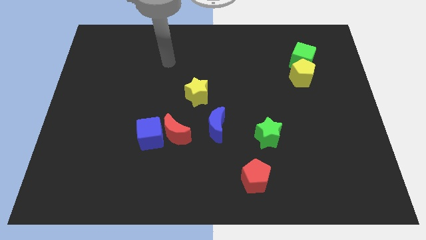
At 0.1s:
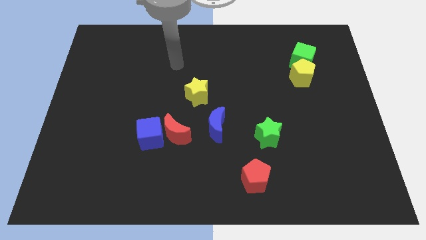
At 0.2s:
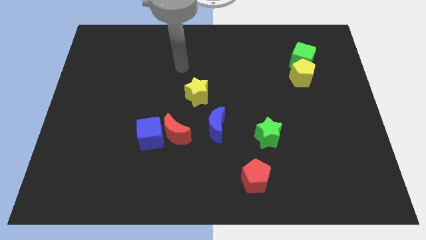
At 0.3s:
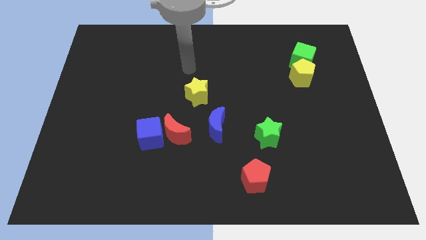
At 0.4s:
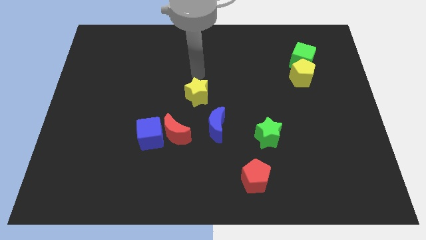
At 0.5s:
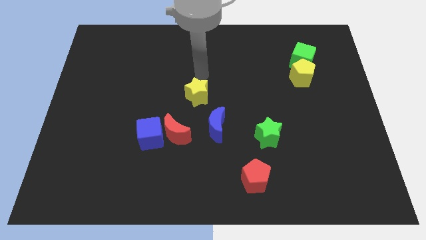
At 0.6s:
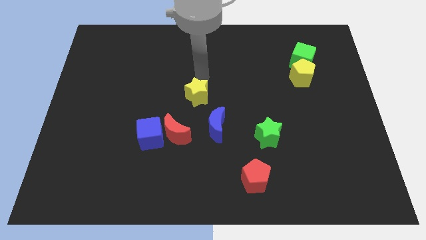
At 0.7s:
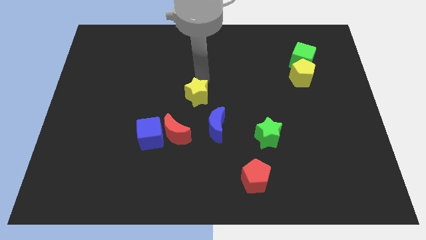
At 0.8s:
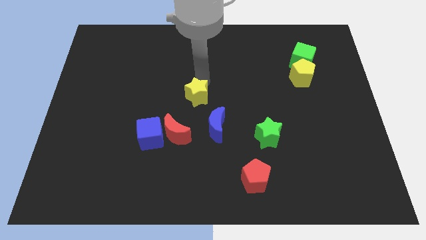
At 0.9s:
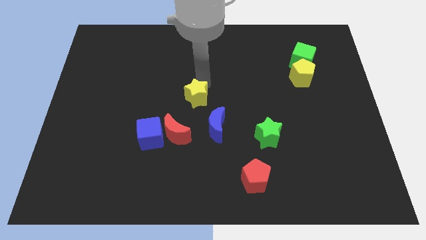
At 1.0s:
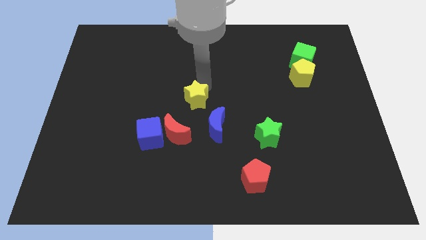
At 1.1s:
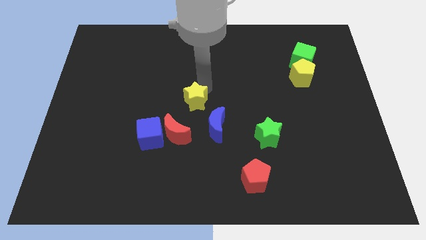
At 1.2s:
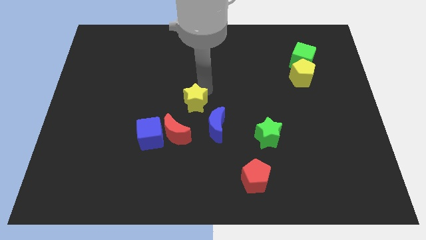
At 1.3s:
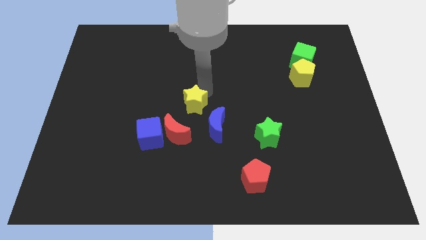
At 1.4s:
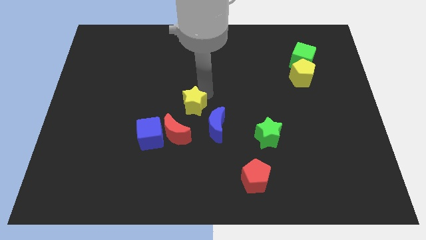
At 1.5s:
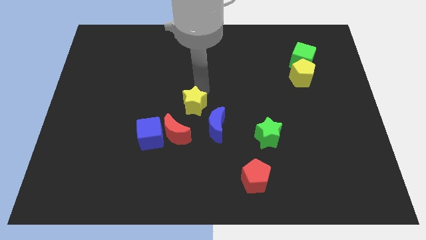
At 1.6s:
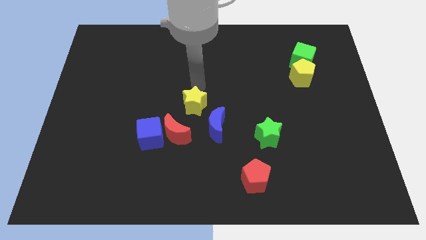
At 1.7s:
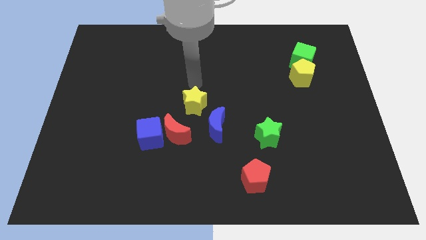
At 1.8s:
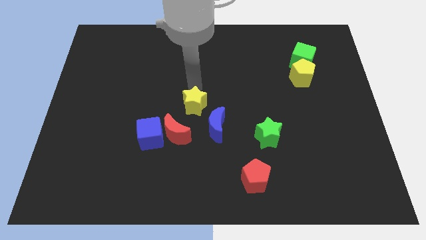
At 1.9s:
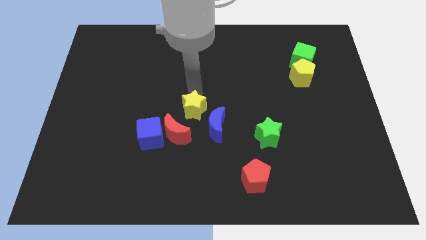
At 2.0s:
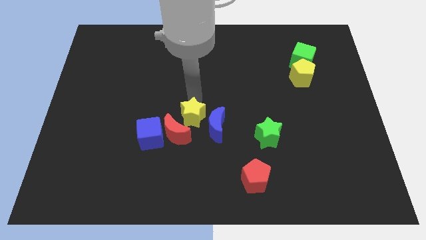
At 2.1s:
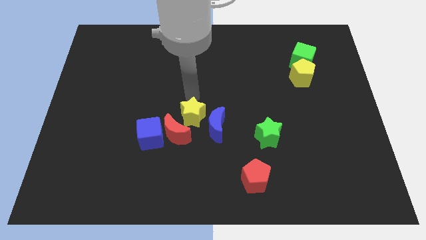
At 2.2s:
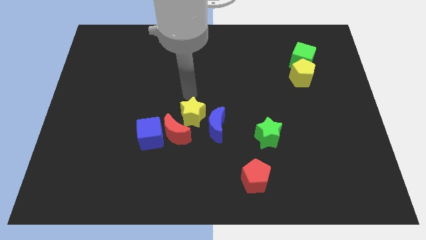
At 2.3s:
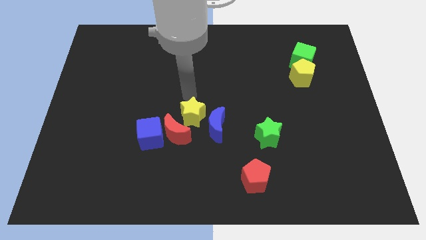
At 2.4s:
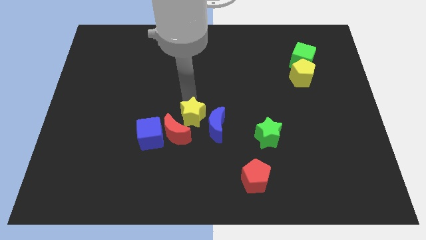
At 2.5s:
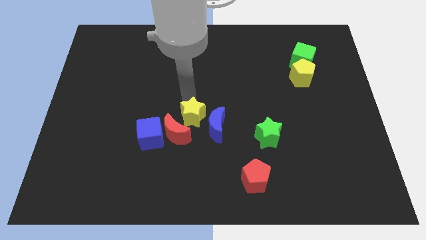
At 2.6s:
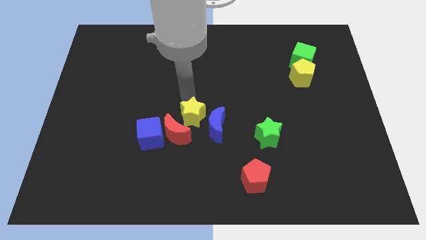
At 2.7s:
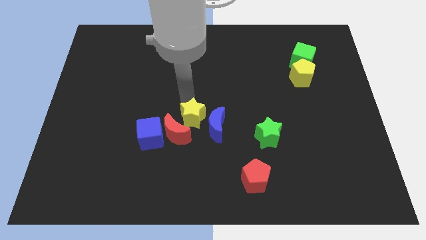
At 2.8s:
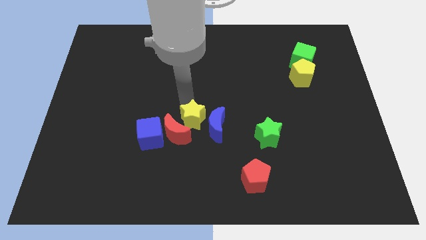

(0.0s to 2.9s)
slightly slide the yellow star down

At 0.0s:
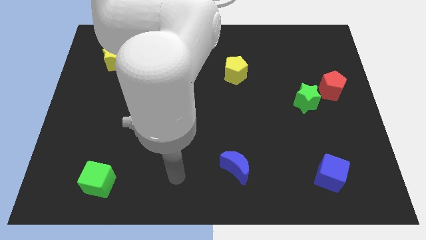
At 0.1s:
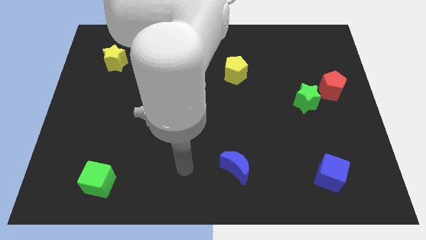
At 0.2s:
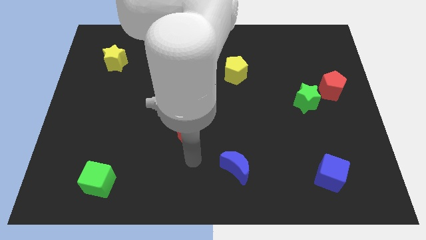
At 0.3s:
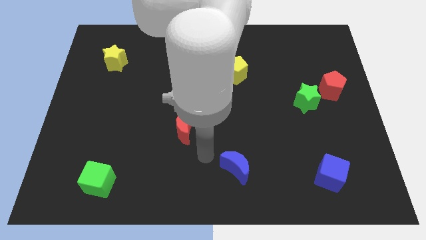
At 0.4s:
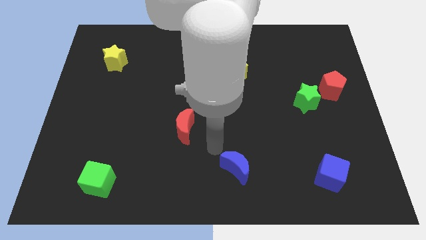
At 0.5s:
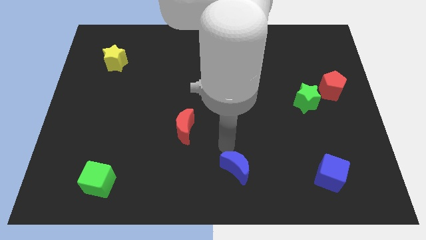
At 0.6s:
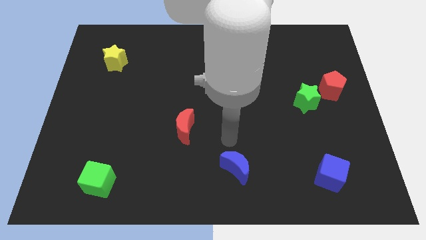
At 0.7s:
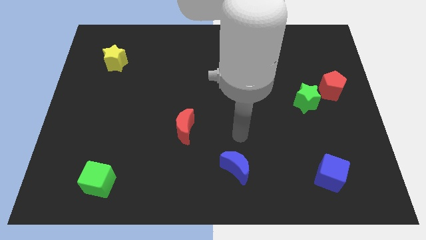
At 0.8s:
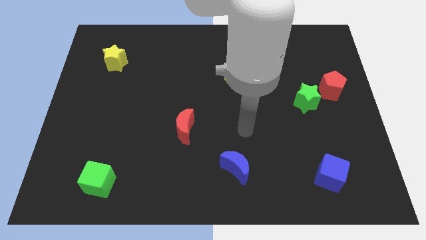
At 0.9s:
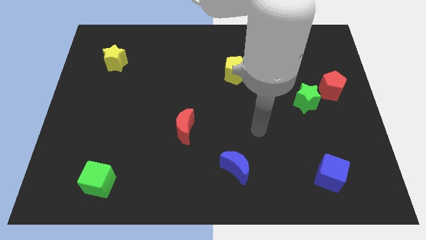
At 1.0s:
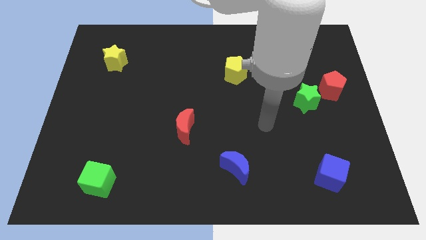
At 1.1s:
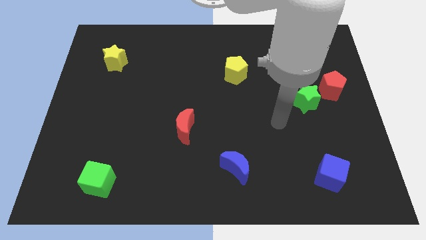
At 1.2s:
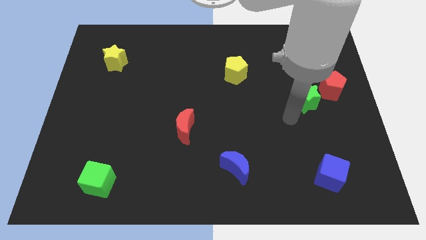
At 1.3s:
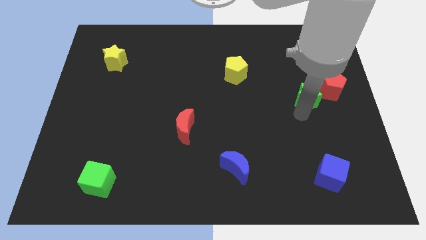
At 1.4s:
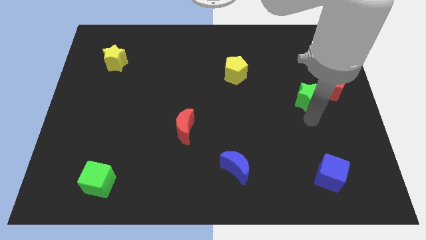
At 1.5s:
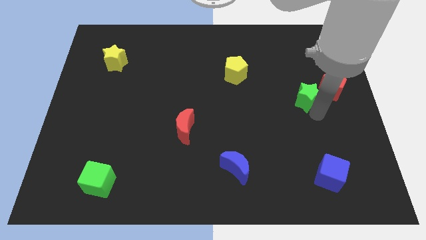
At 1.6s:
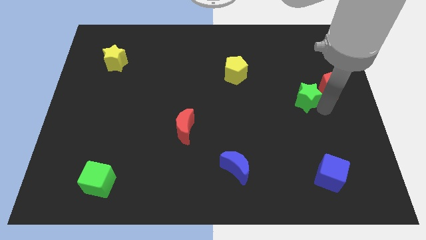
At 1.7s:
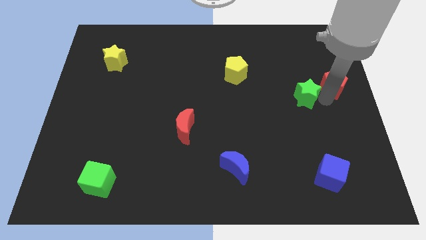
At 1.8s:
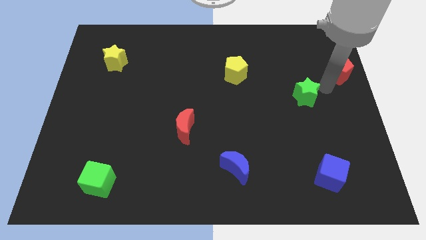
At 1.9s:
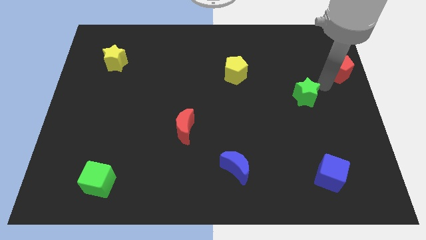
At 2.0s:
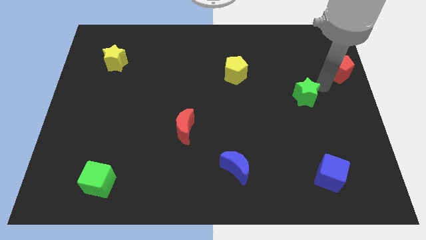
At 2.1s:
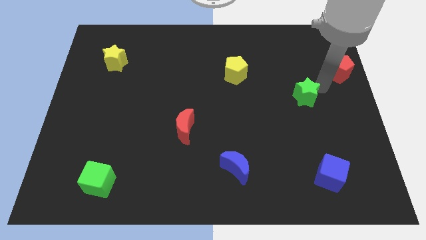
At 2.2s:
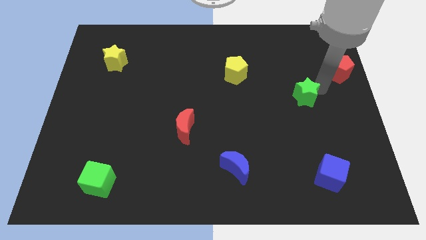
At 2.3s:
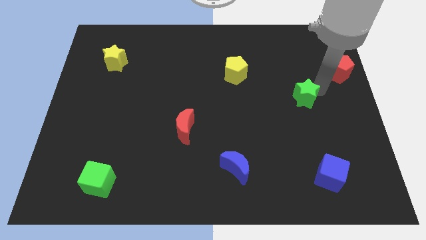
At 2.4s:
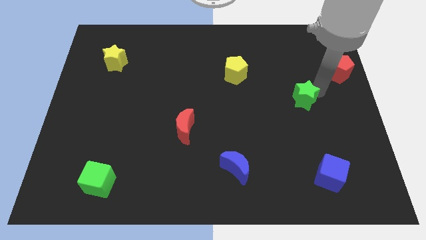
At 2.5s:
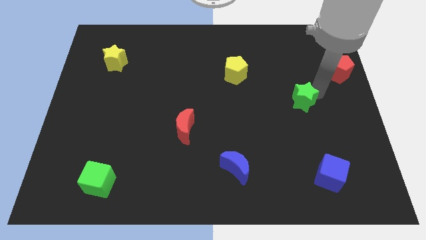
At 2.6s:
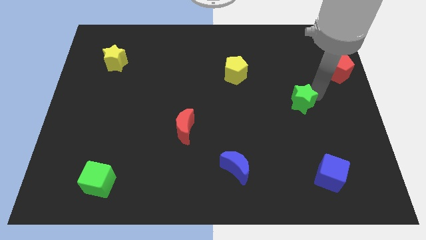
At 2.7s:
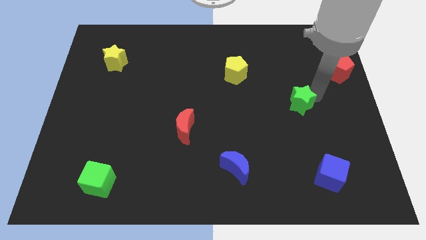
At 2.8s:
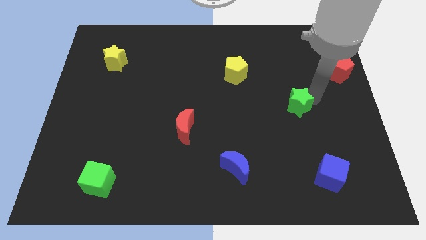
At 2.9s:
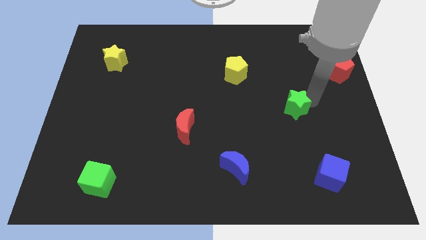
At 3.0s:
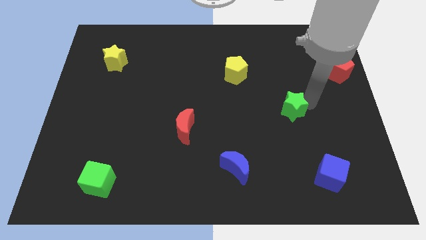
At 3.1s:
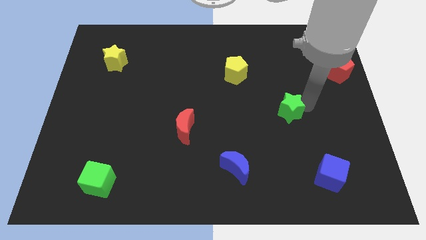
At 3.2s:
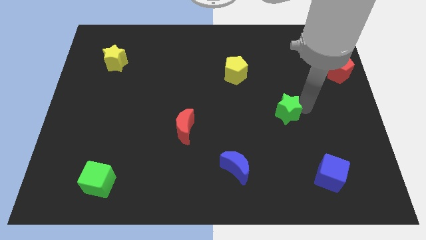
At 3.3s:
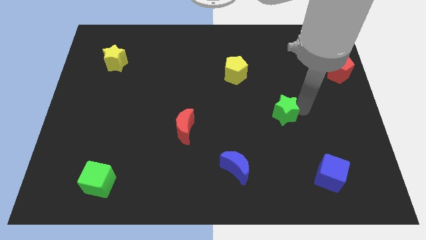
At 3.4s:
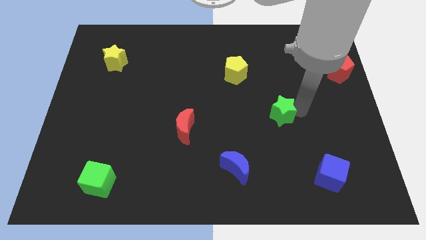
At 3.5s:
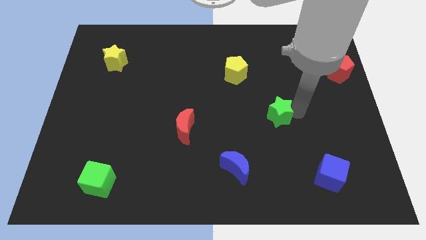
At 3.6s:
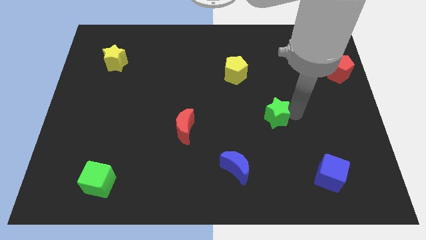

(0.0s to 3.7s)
slightly slide the green star left

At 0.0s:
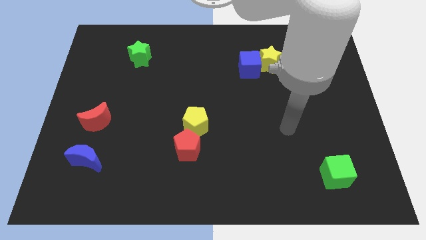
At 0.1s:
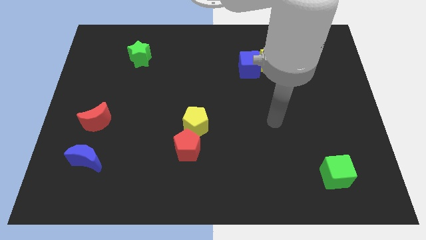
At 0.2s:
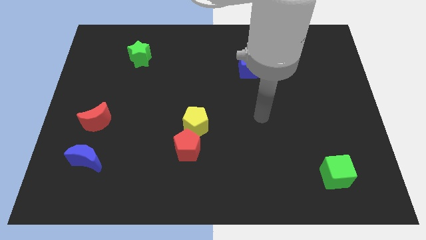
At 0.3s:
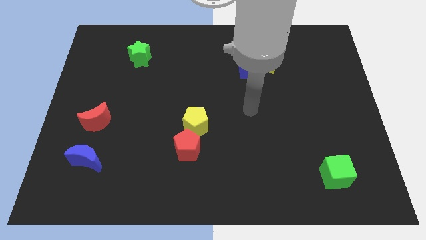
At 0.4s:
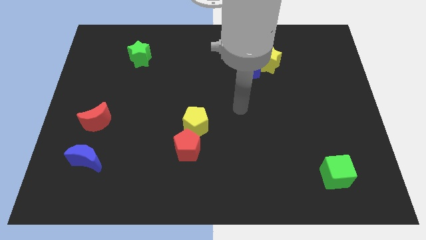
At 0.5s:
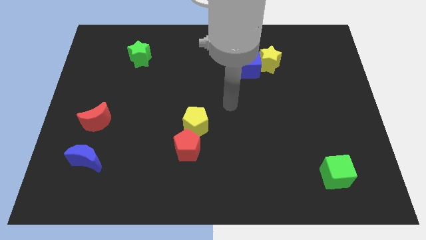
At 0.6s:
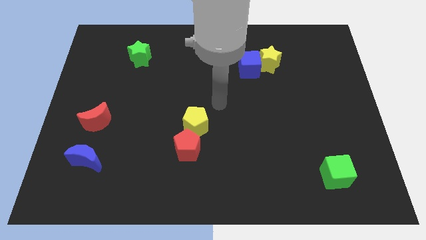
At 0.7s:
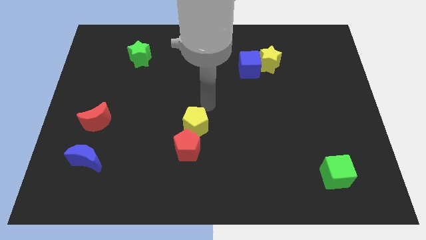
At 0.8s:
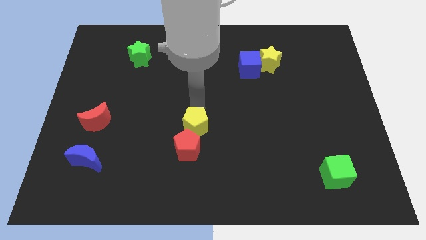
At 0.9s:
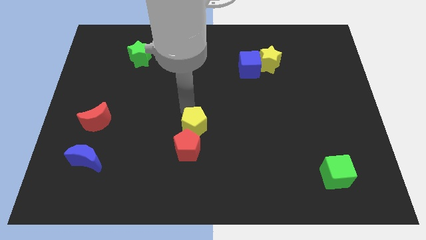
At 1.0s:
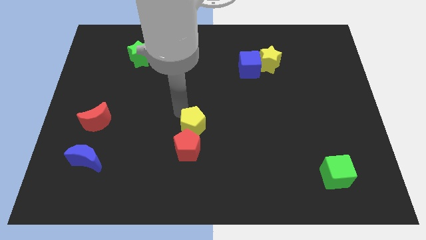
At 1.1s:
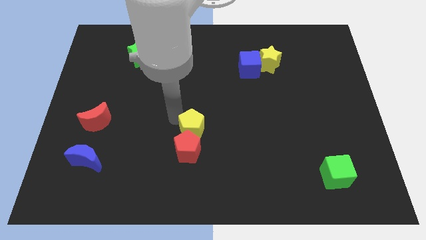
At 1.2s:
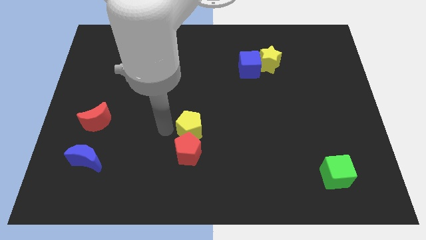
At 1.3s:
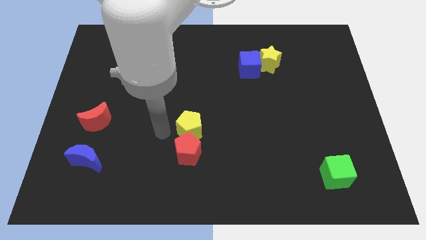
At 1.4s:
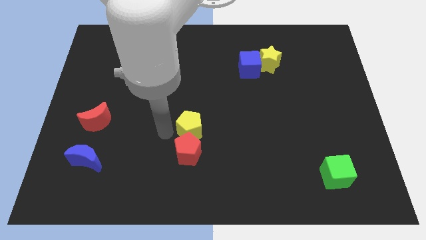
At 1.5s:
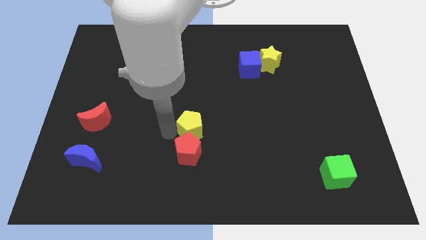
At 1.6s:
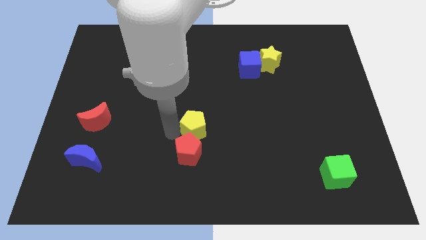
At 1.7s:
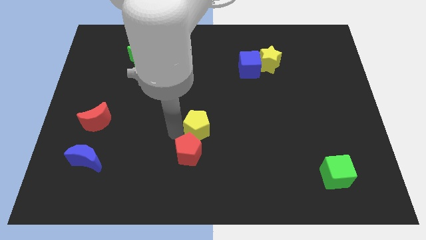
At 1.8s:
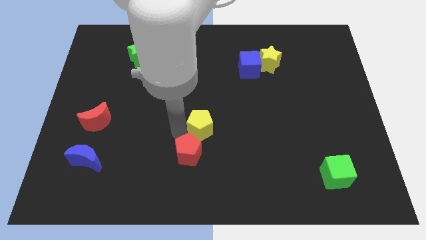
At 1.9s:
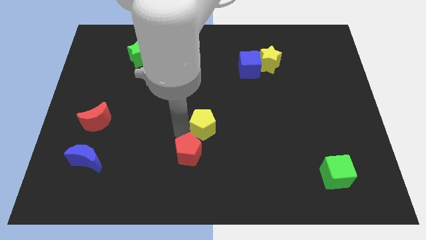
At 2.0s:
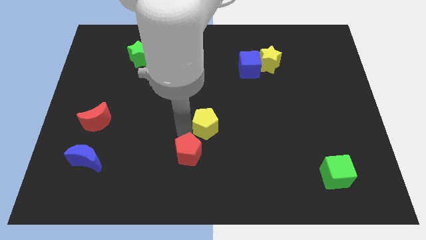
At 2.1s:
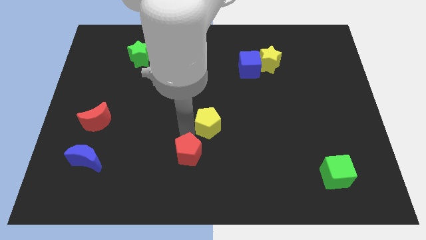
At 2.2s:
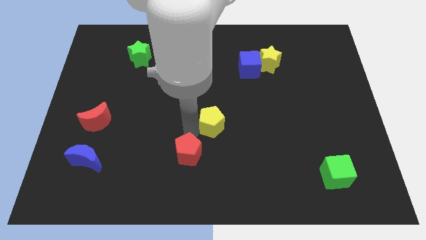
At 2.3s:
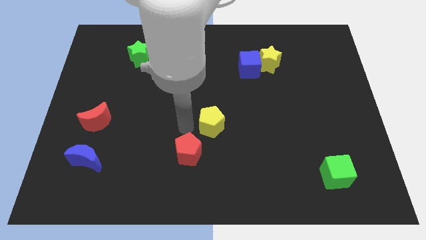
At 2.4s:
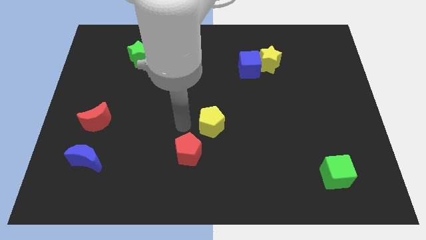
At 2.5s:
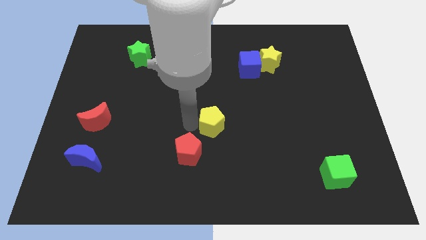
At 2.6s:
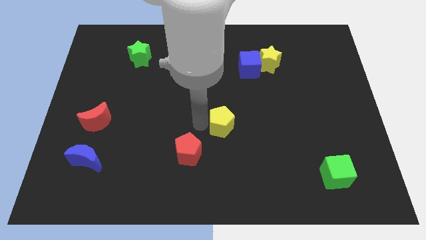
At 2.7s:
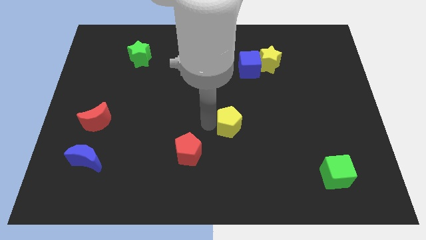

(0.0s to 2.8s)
slightly move the yellow pentagon to the right
